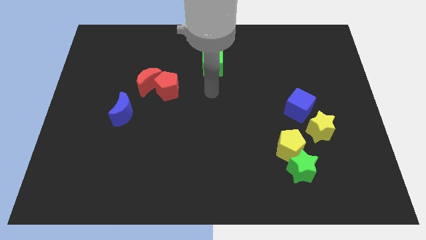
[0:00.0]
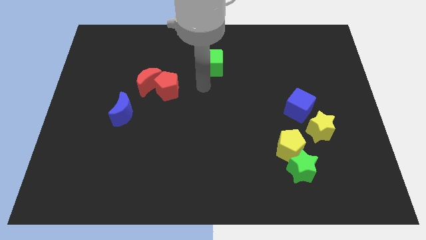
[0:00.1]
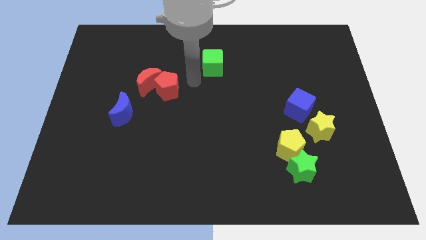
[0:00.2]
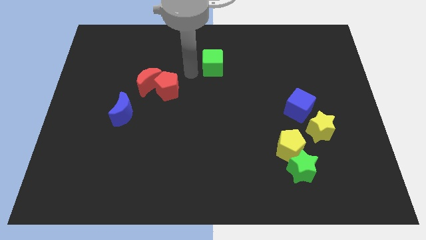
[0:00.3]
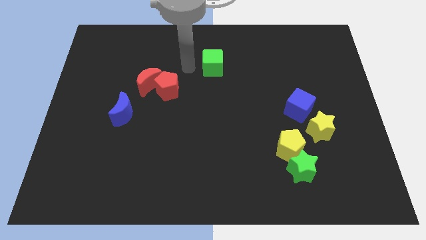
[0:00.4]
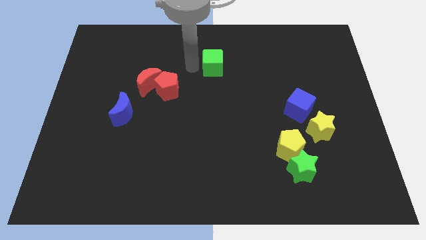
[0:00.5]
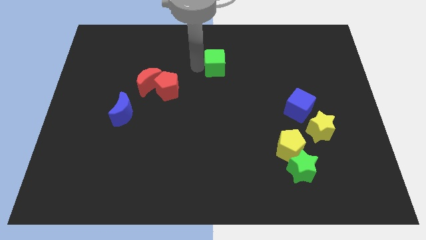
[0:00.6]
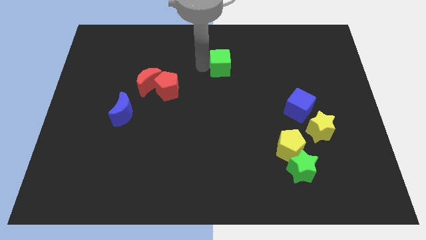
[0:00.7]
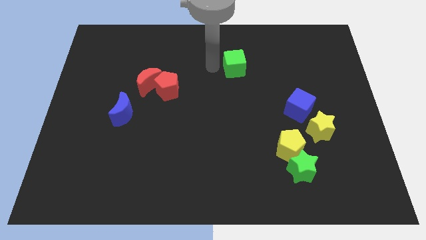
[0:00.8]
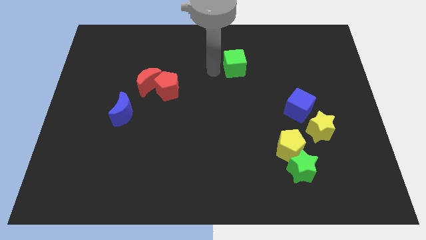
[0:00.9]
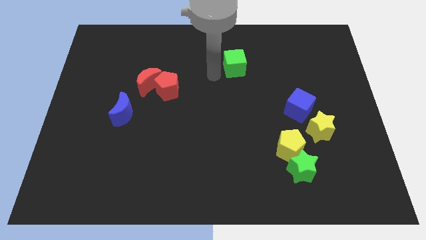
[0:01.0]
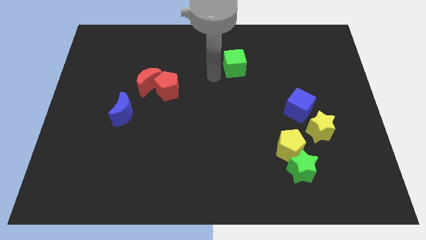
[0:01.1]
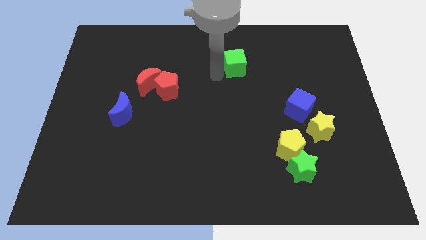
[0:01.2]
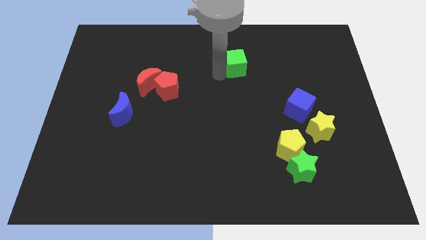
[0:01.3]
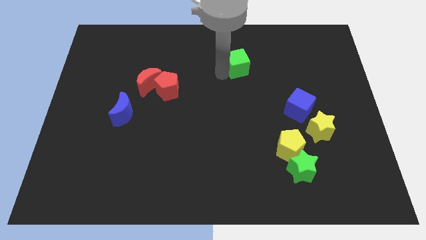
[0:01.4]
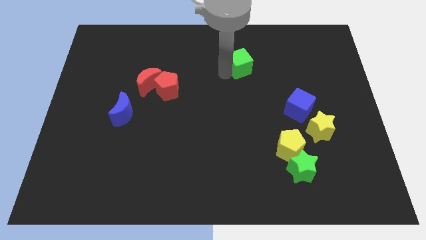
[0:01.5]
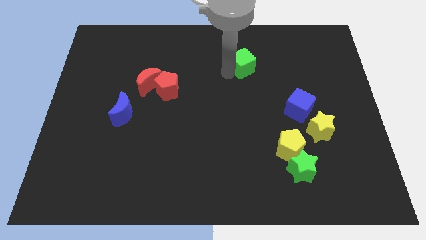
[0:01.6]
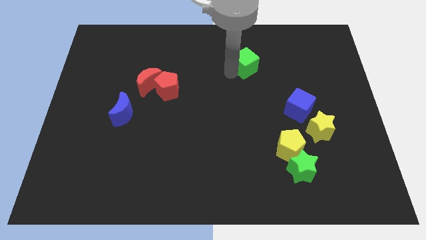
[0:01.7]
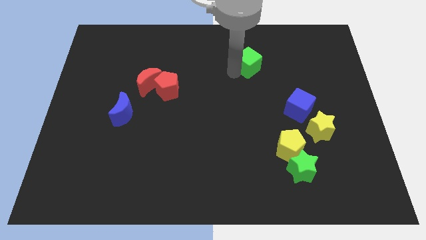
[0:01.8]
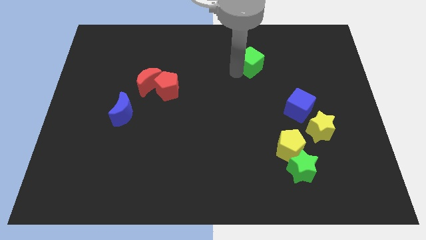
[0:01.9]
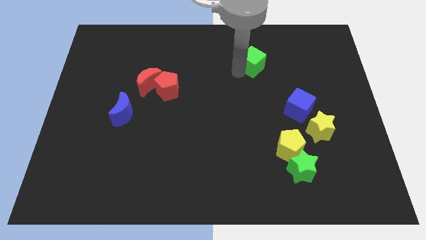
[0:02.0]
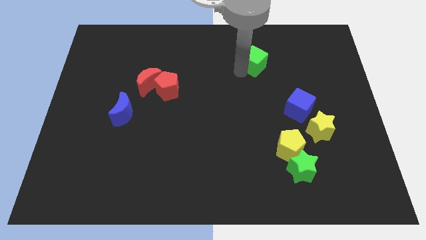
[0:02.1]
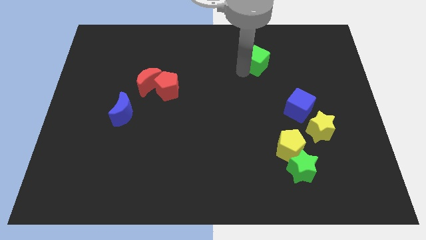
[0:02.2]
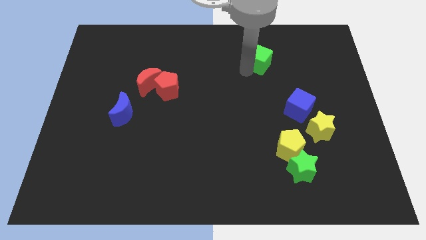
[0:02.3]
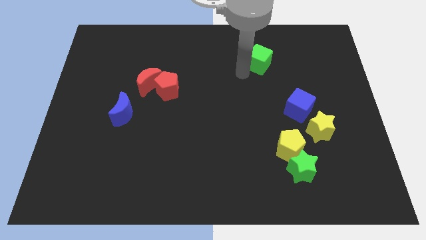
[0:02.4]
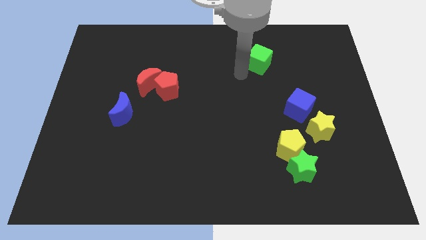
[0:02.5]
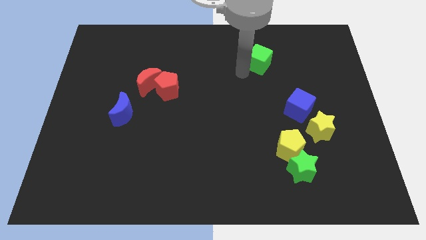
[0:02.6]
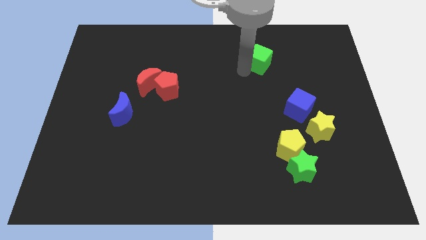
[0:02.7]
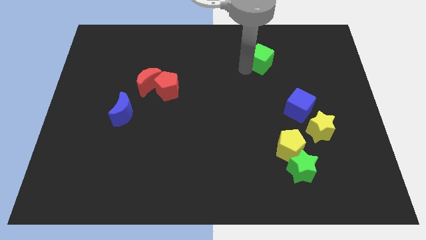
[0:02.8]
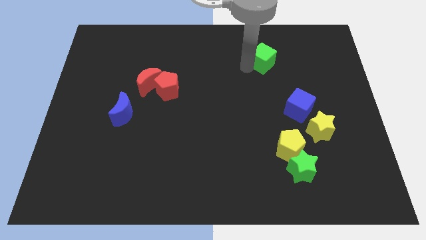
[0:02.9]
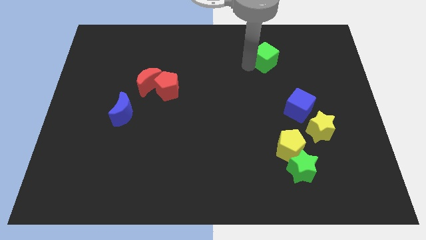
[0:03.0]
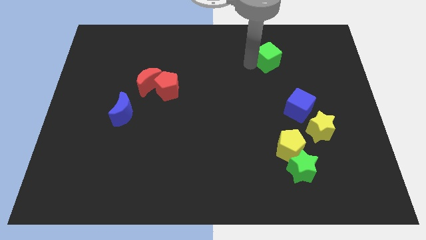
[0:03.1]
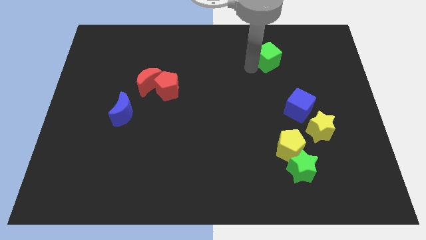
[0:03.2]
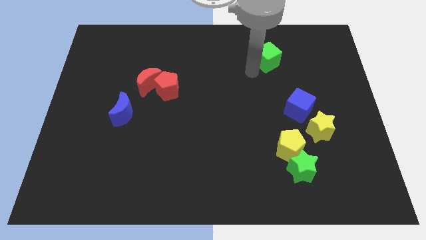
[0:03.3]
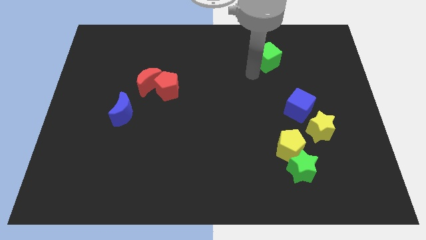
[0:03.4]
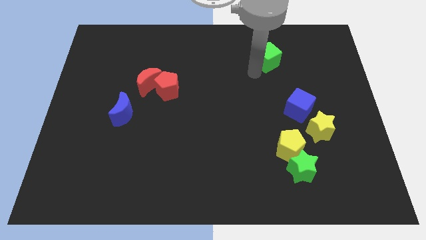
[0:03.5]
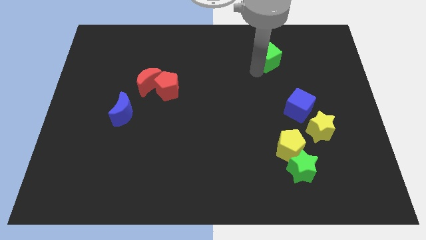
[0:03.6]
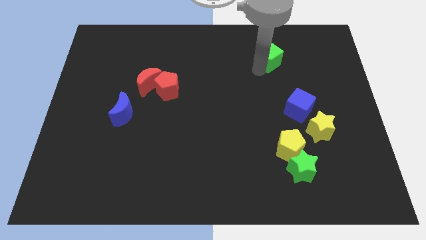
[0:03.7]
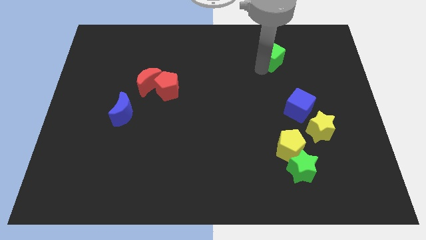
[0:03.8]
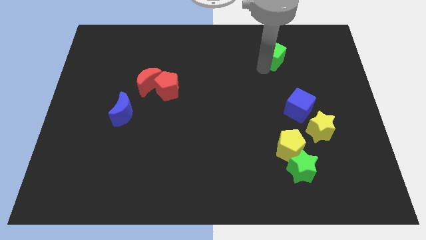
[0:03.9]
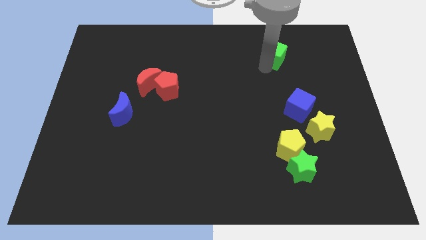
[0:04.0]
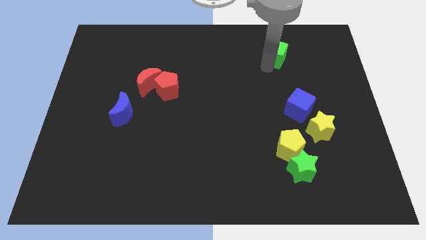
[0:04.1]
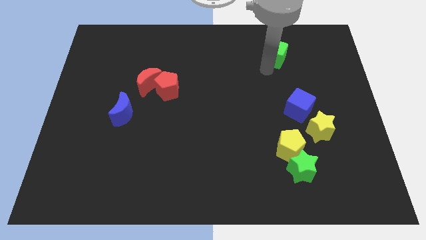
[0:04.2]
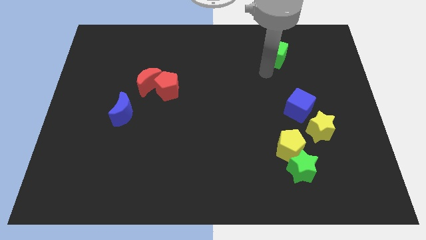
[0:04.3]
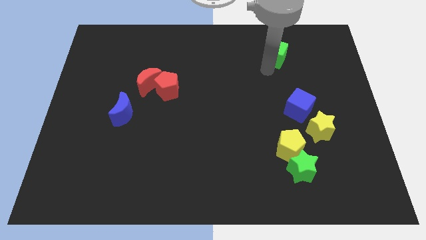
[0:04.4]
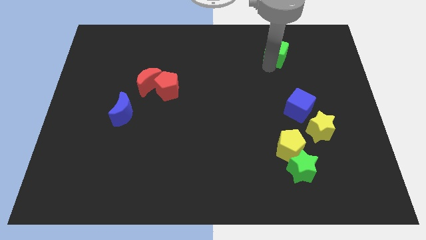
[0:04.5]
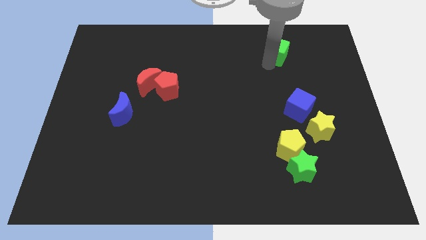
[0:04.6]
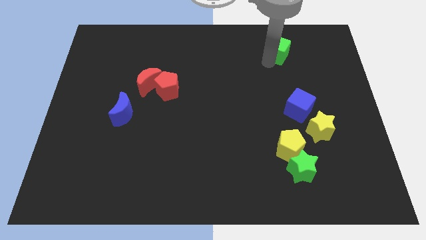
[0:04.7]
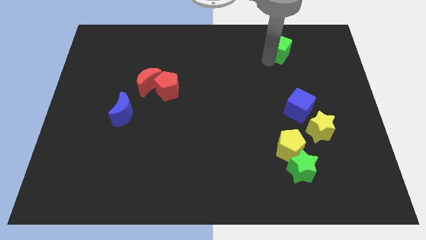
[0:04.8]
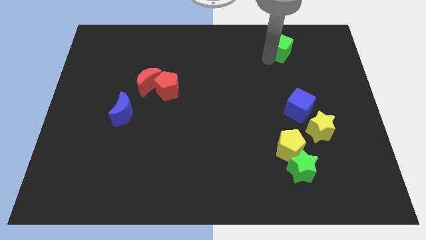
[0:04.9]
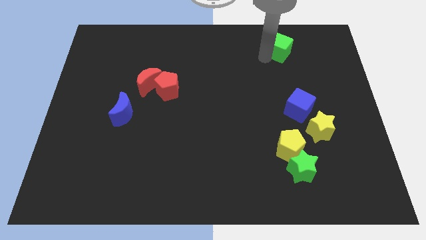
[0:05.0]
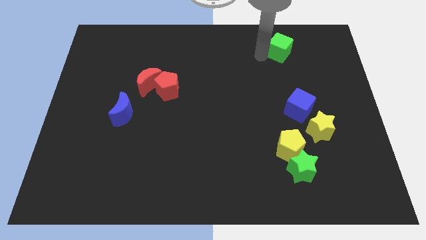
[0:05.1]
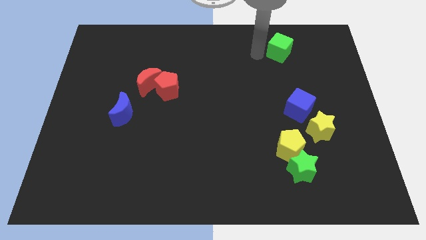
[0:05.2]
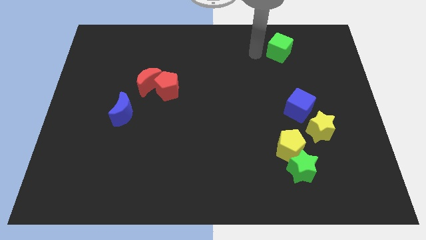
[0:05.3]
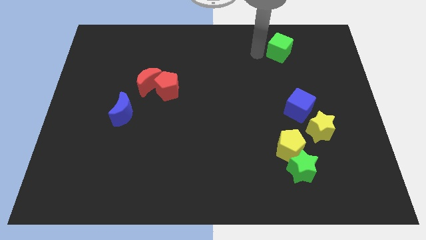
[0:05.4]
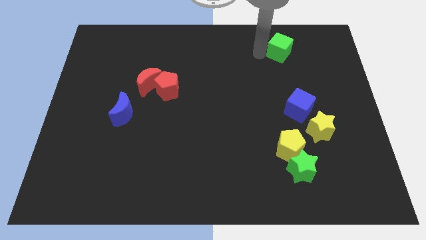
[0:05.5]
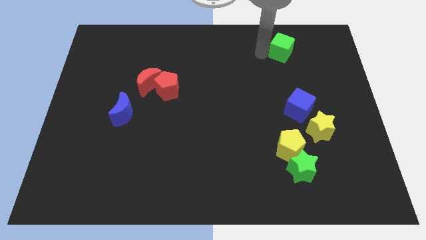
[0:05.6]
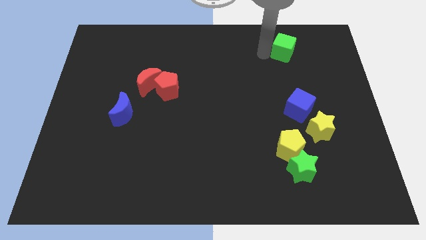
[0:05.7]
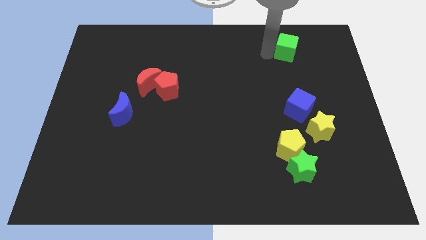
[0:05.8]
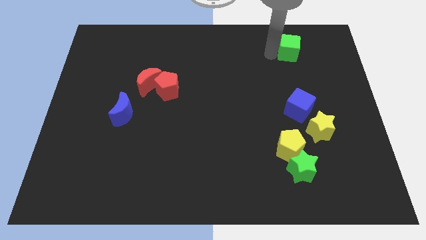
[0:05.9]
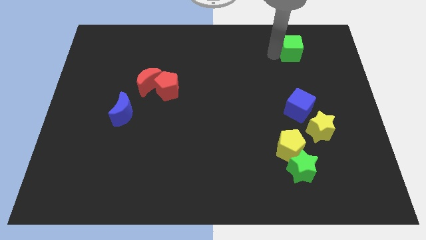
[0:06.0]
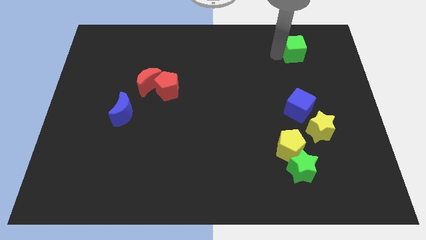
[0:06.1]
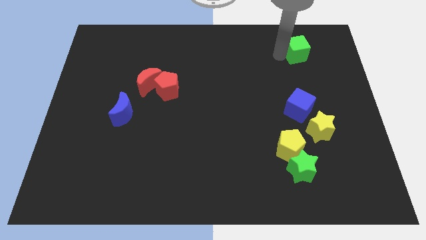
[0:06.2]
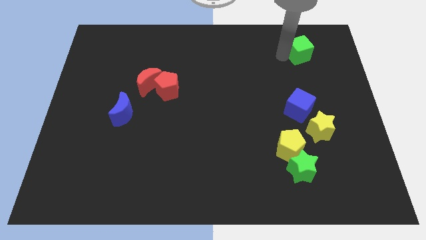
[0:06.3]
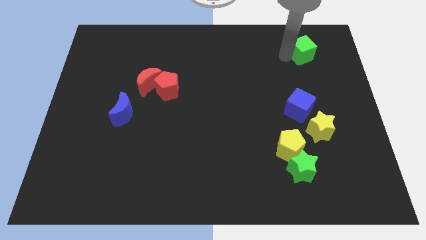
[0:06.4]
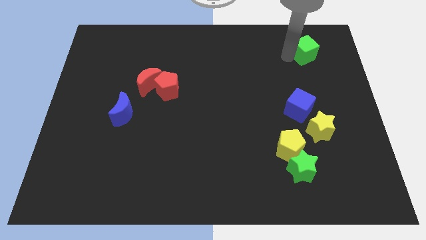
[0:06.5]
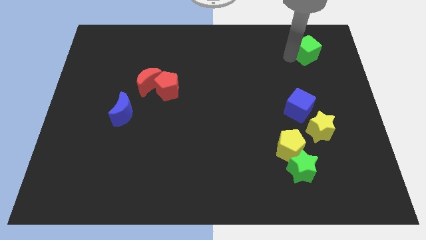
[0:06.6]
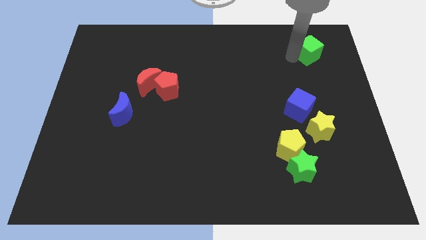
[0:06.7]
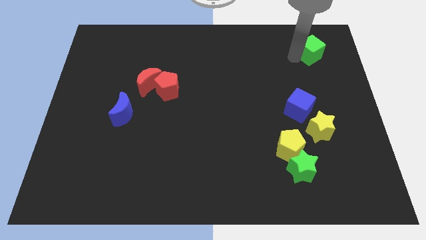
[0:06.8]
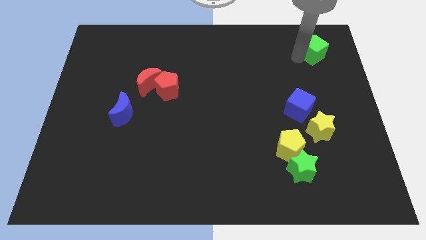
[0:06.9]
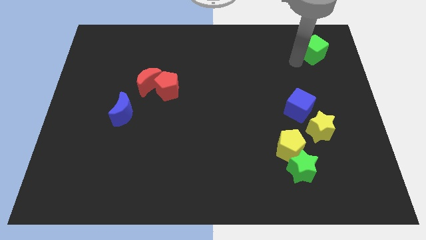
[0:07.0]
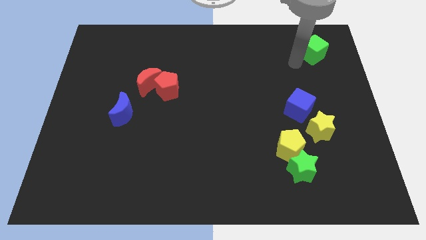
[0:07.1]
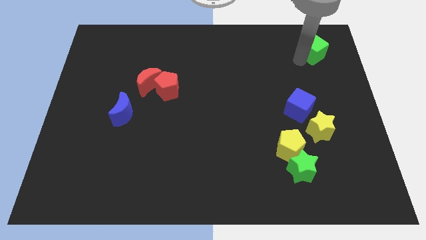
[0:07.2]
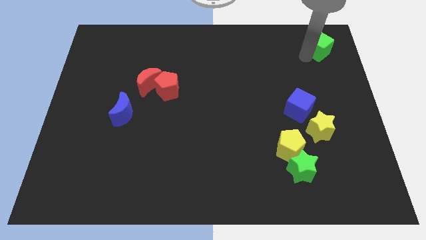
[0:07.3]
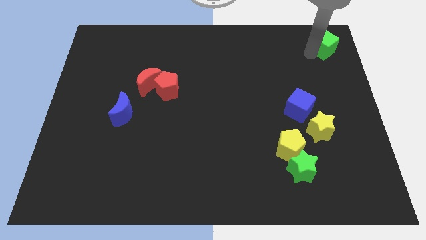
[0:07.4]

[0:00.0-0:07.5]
put the green cube to the top right of the board
